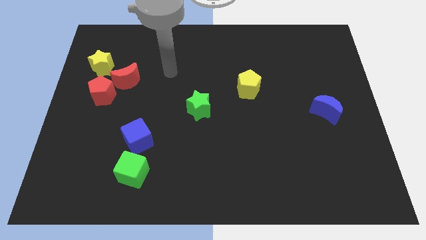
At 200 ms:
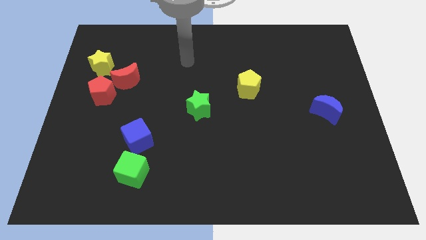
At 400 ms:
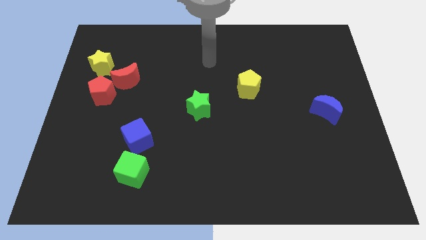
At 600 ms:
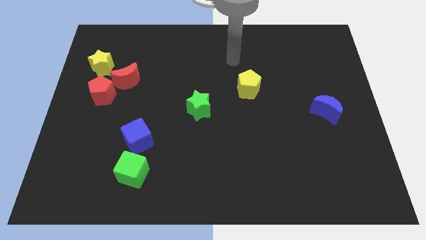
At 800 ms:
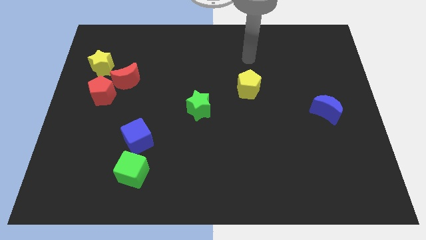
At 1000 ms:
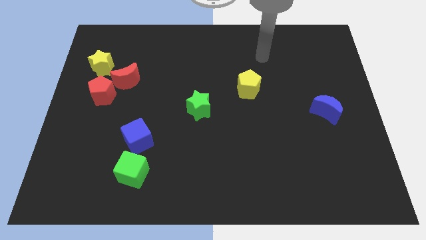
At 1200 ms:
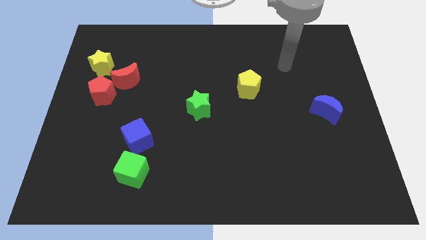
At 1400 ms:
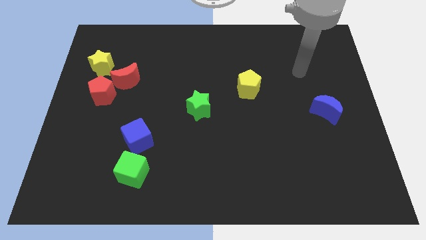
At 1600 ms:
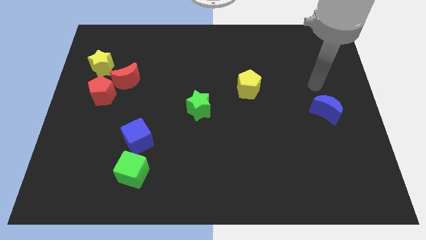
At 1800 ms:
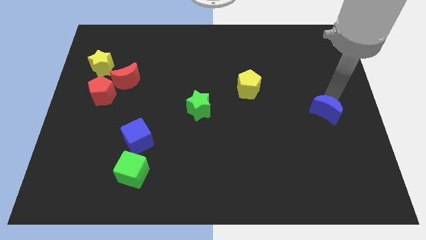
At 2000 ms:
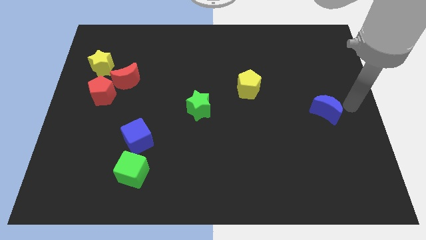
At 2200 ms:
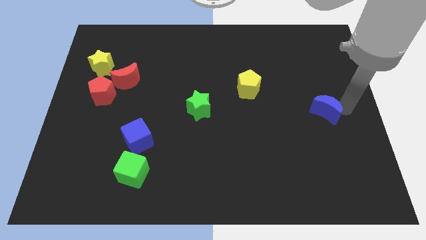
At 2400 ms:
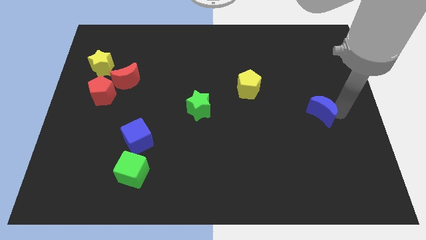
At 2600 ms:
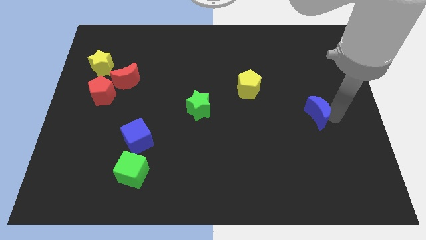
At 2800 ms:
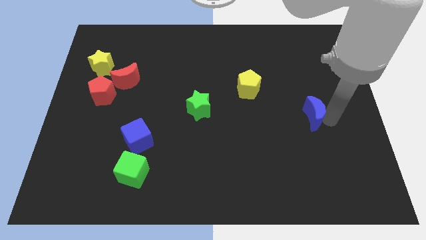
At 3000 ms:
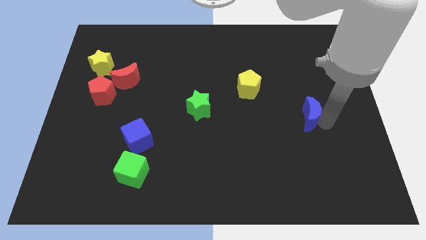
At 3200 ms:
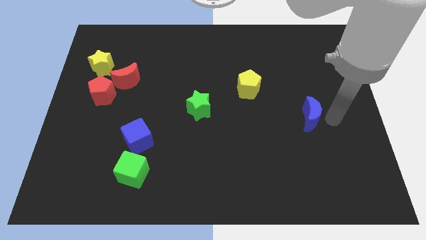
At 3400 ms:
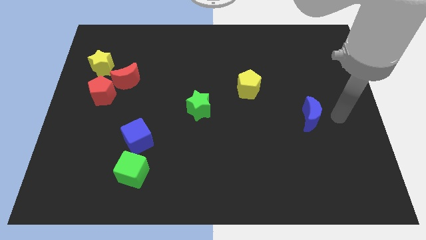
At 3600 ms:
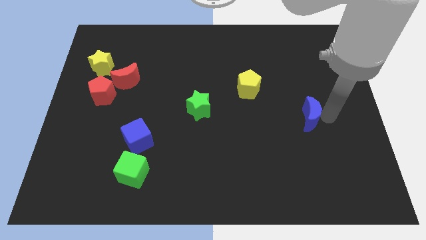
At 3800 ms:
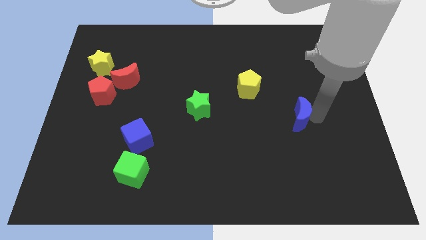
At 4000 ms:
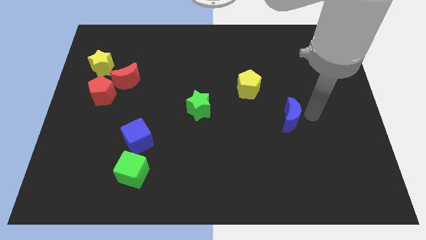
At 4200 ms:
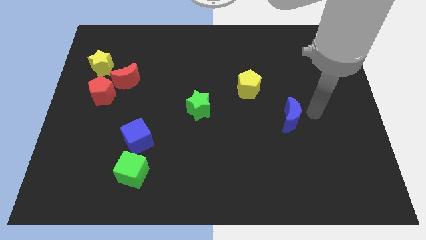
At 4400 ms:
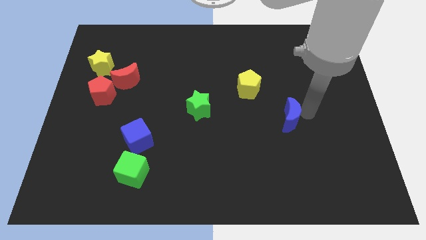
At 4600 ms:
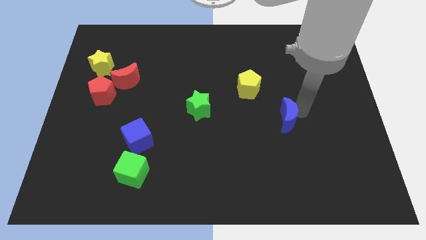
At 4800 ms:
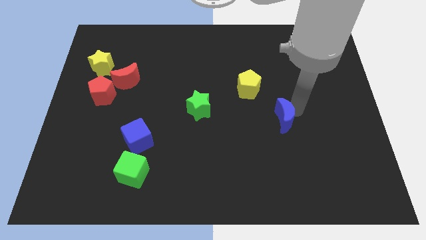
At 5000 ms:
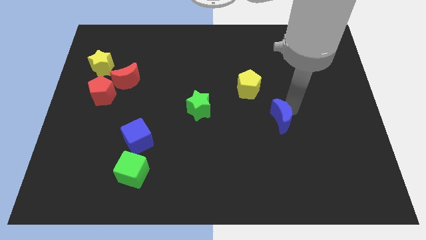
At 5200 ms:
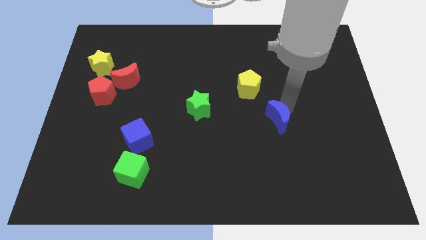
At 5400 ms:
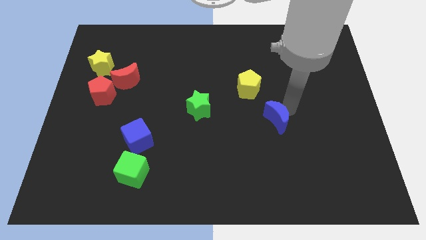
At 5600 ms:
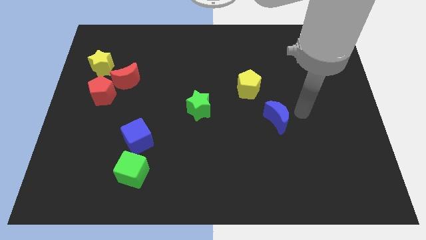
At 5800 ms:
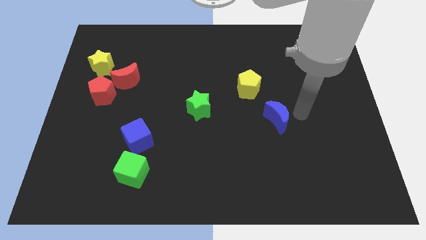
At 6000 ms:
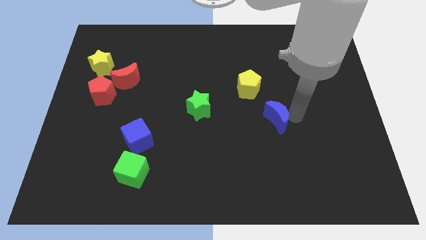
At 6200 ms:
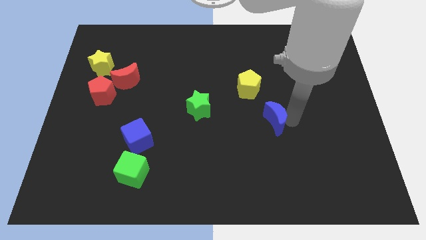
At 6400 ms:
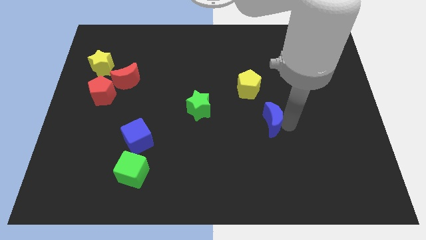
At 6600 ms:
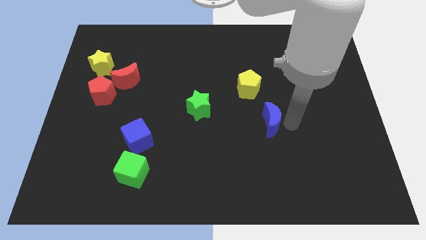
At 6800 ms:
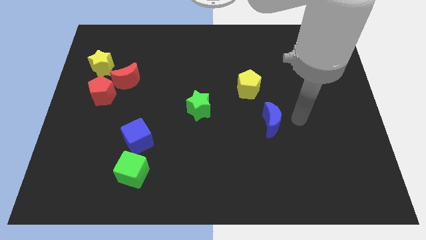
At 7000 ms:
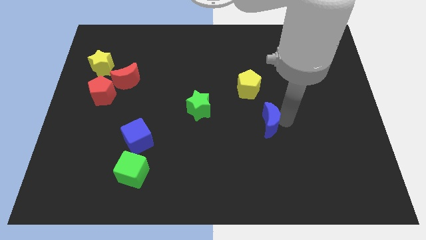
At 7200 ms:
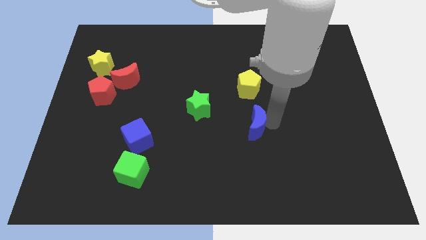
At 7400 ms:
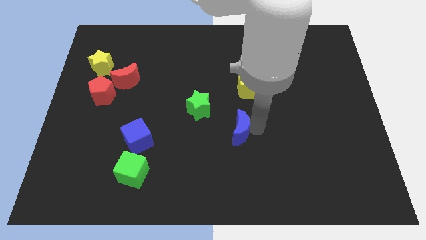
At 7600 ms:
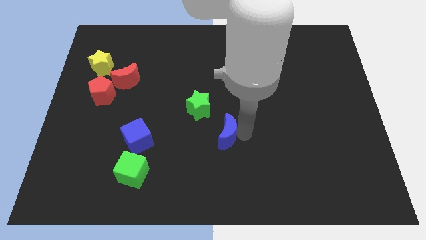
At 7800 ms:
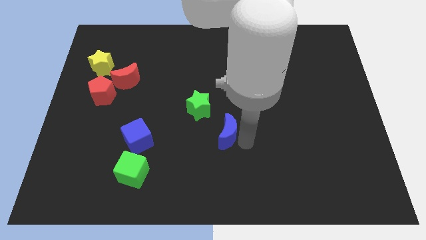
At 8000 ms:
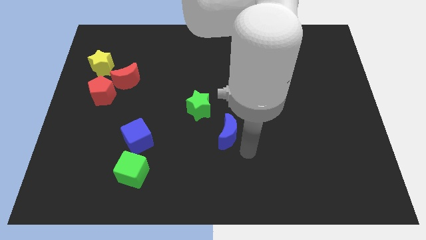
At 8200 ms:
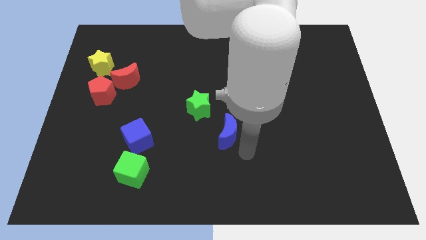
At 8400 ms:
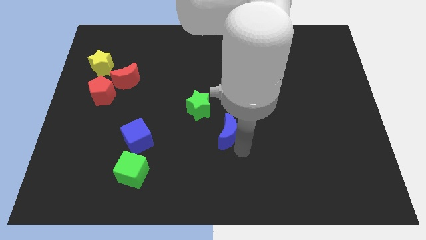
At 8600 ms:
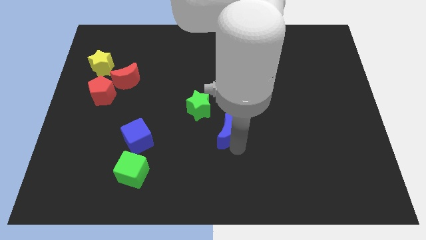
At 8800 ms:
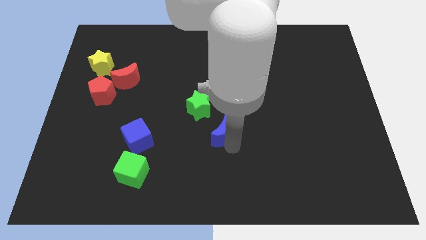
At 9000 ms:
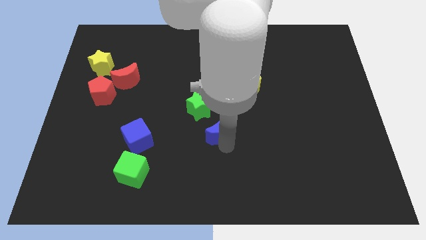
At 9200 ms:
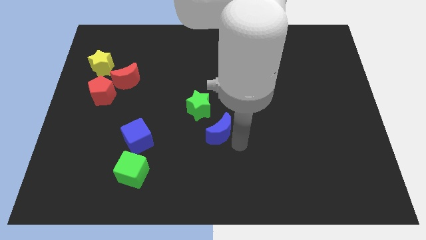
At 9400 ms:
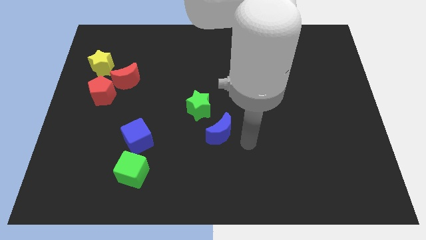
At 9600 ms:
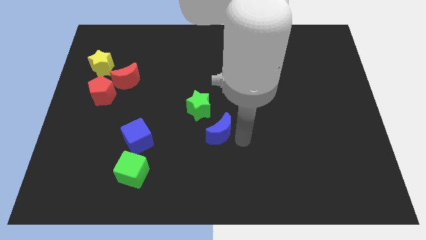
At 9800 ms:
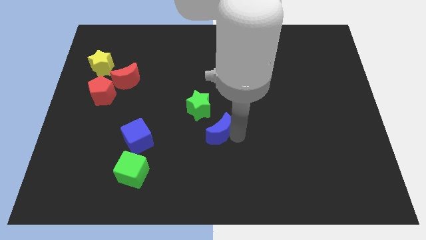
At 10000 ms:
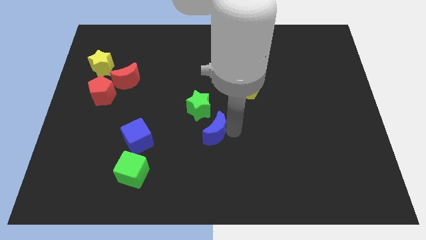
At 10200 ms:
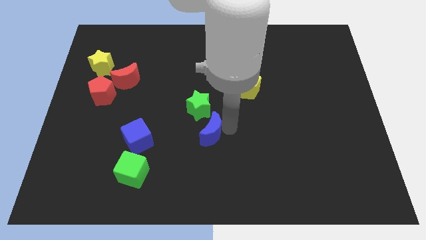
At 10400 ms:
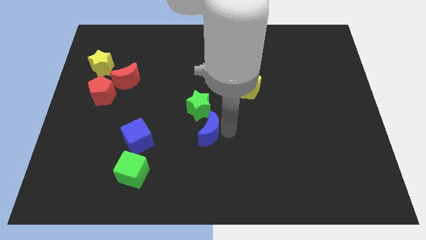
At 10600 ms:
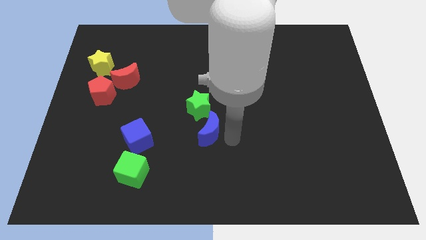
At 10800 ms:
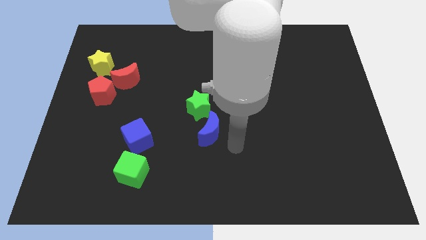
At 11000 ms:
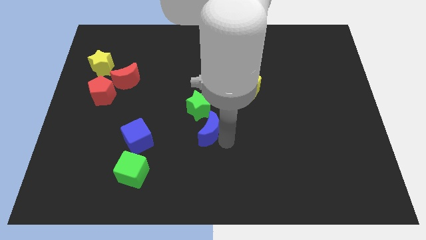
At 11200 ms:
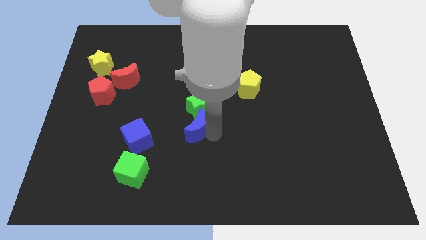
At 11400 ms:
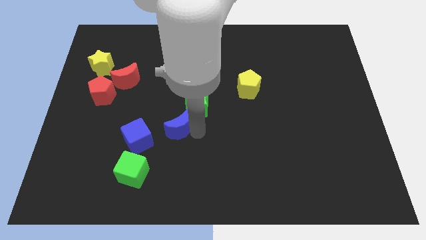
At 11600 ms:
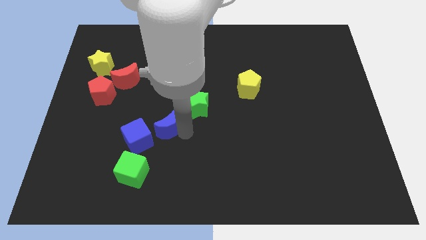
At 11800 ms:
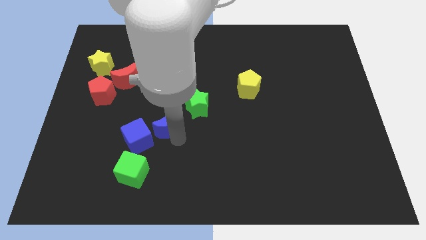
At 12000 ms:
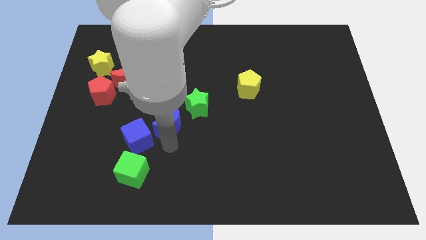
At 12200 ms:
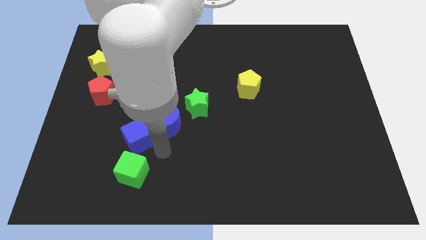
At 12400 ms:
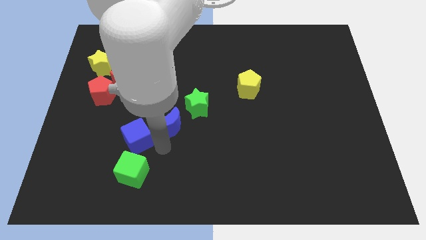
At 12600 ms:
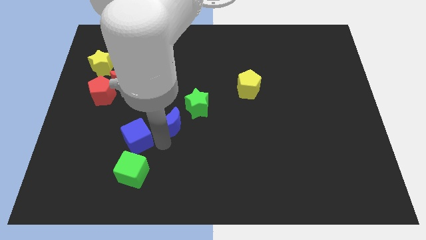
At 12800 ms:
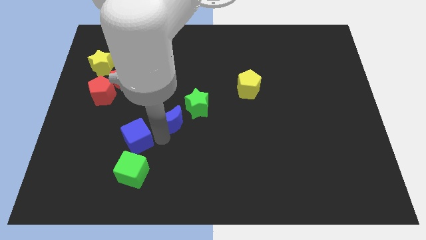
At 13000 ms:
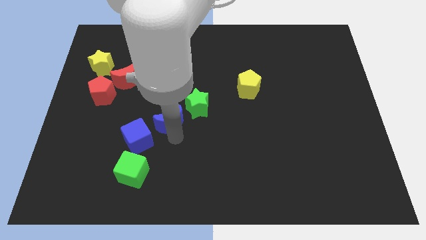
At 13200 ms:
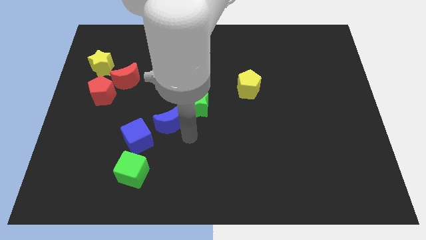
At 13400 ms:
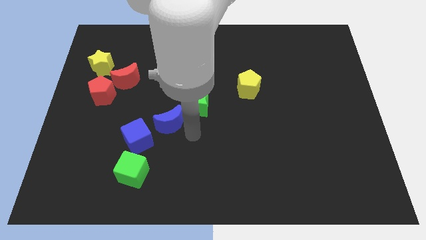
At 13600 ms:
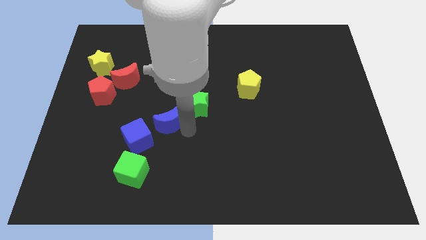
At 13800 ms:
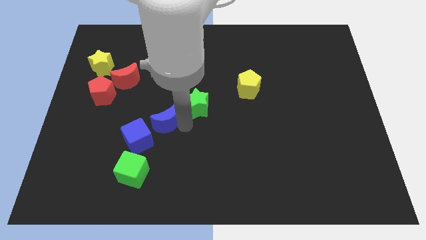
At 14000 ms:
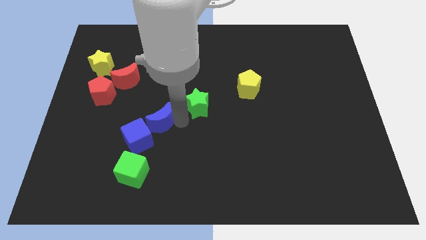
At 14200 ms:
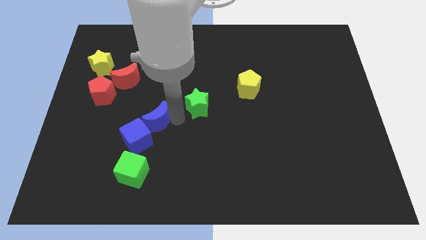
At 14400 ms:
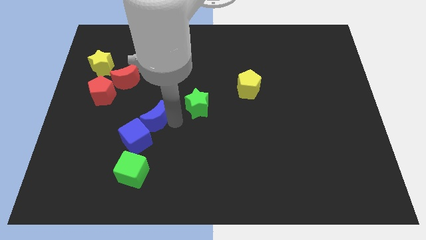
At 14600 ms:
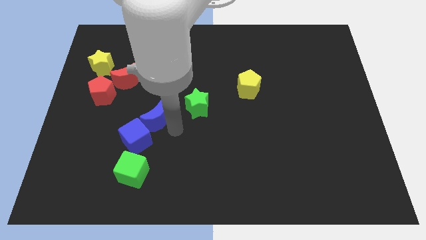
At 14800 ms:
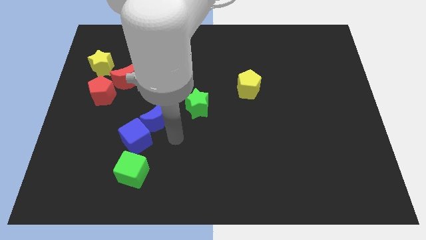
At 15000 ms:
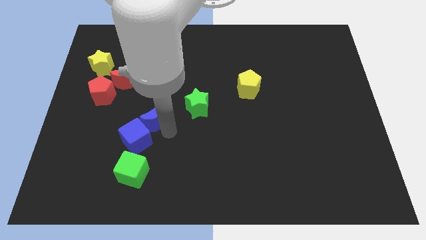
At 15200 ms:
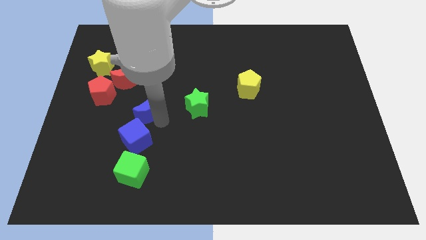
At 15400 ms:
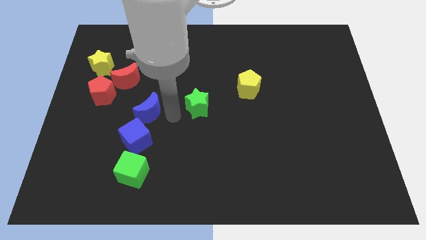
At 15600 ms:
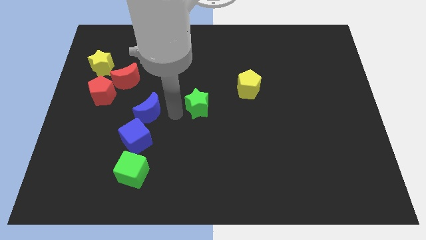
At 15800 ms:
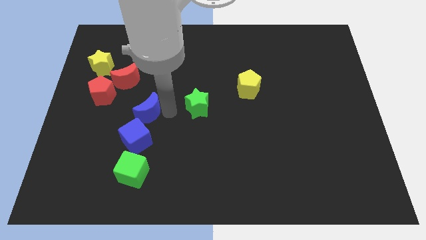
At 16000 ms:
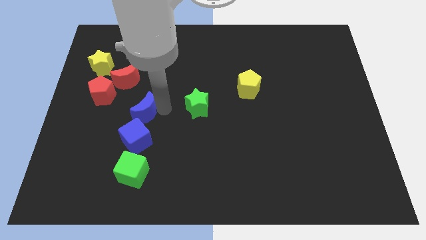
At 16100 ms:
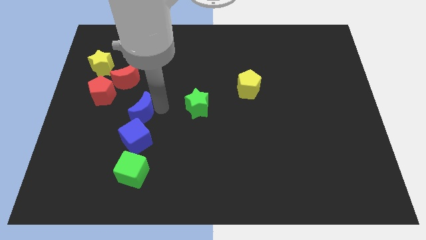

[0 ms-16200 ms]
put the blue moon to the bottom right side of the red pentagon
